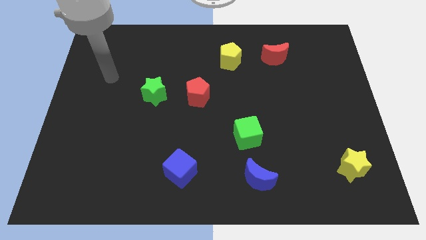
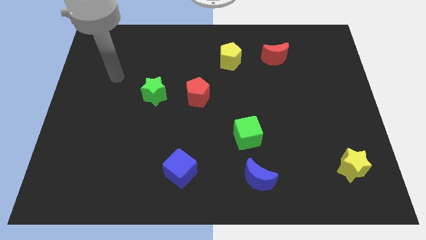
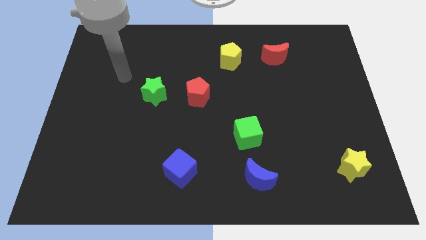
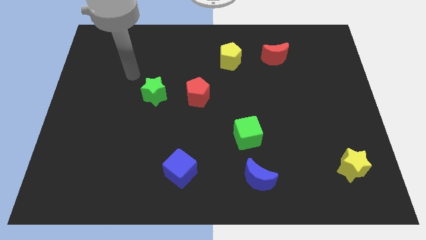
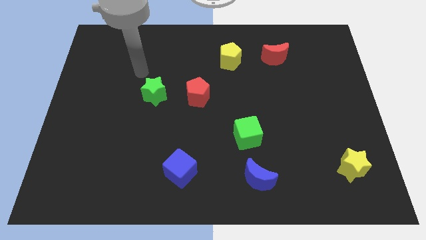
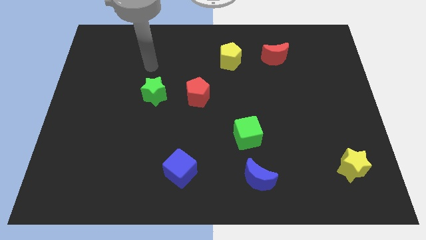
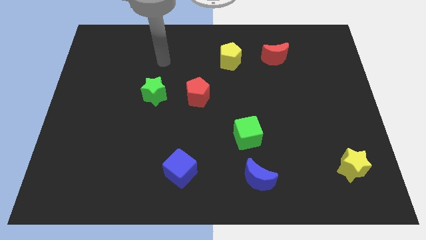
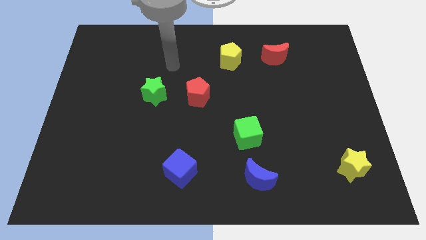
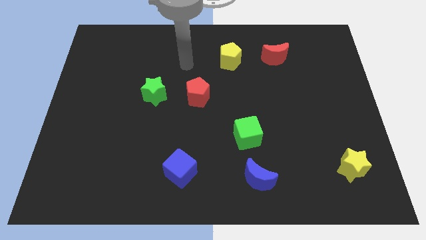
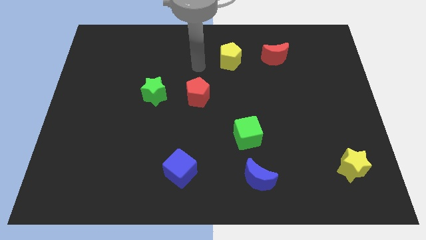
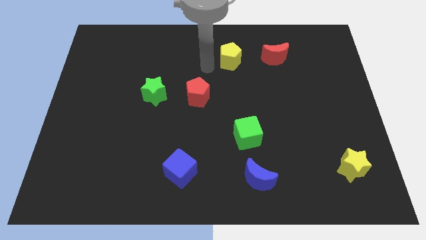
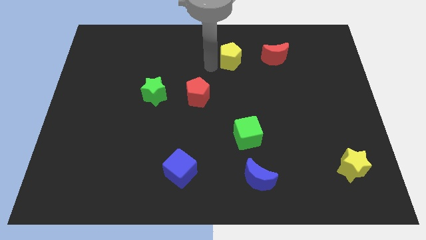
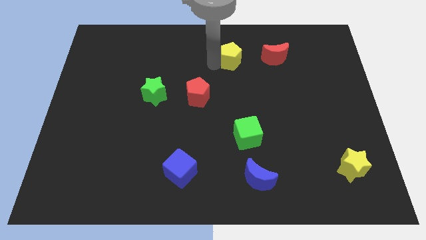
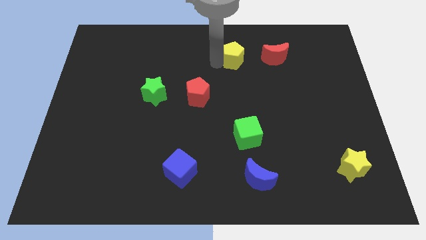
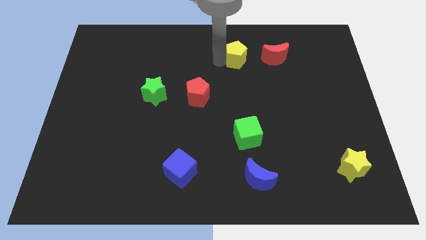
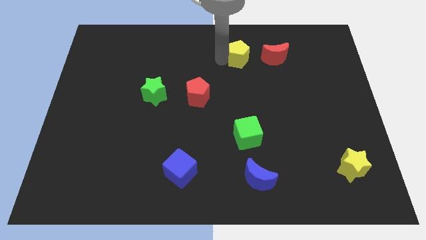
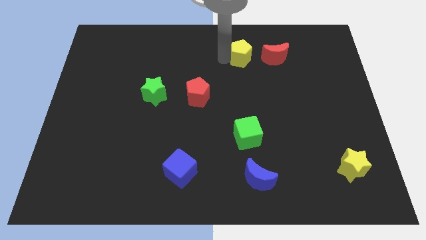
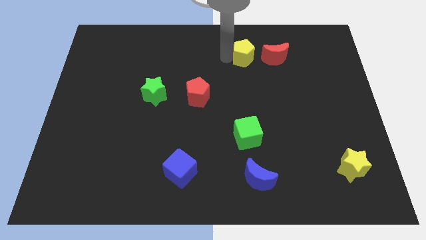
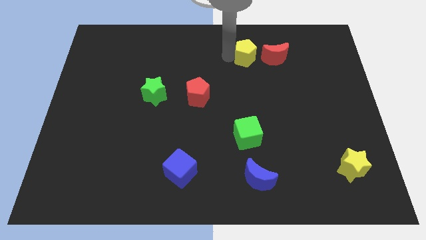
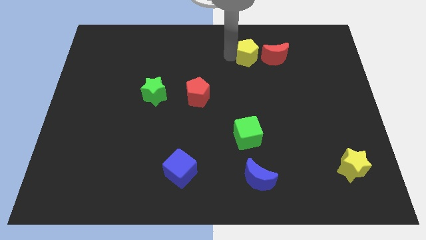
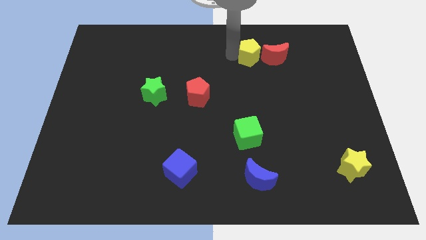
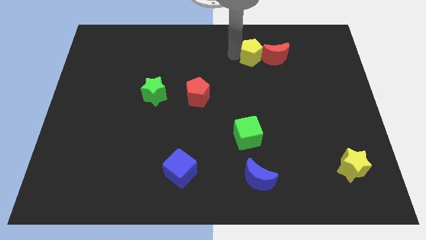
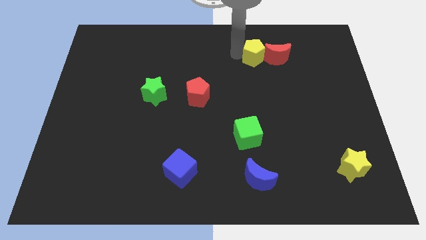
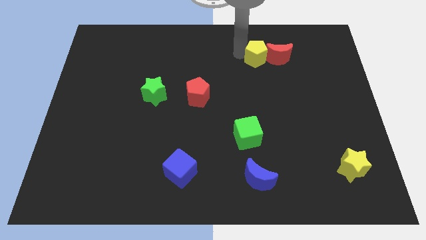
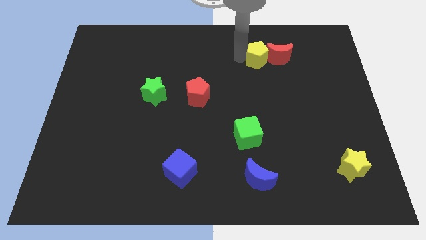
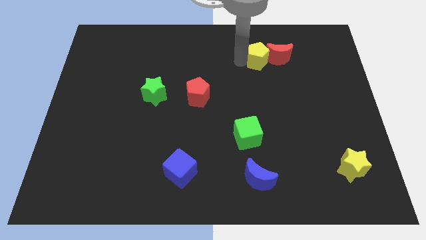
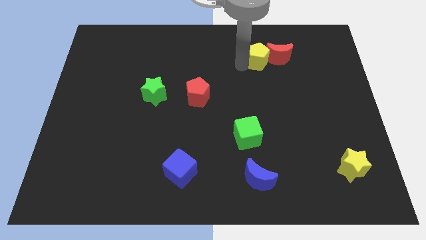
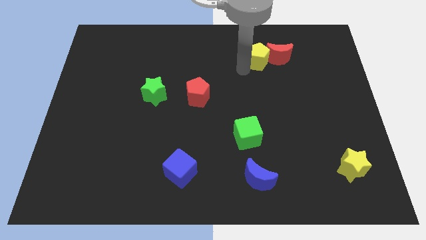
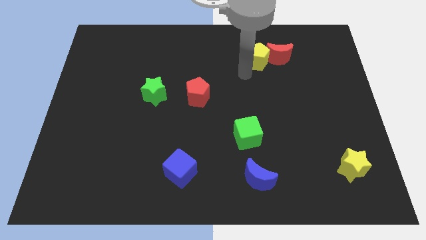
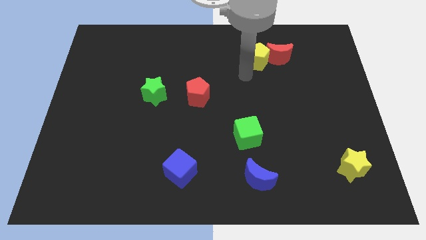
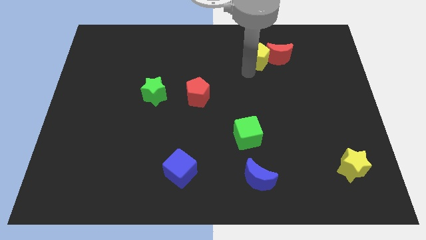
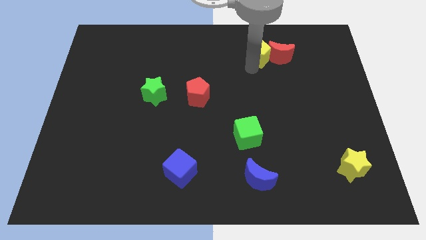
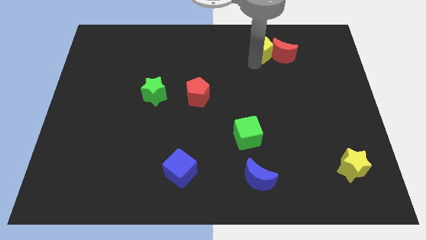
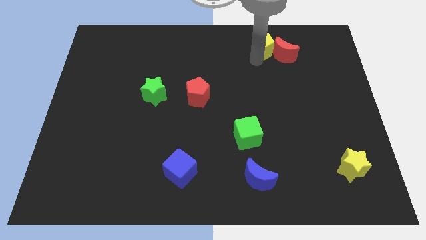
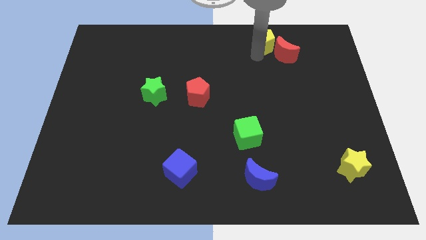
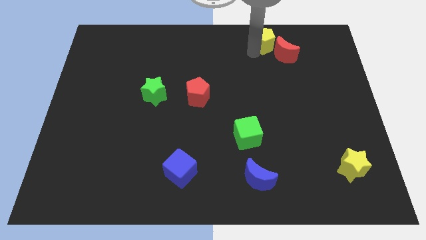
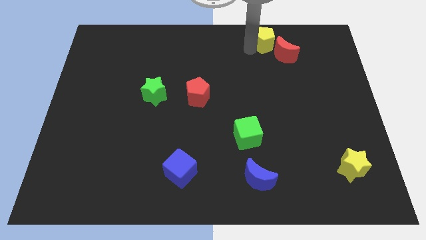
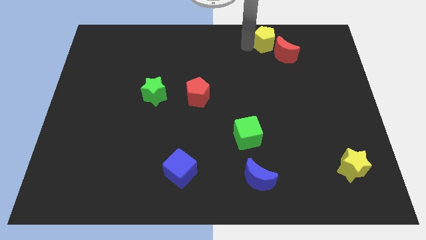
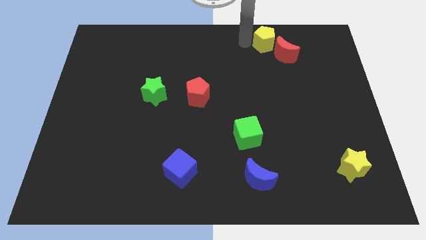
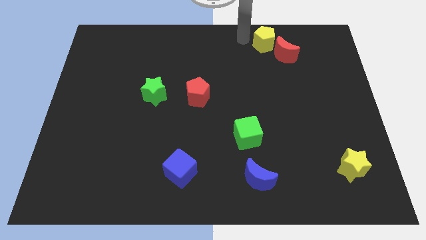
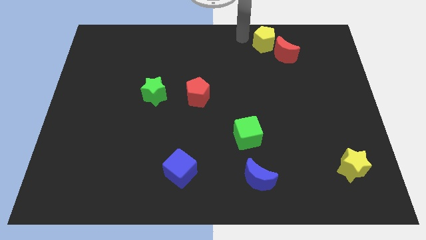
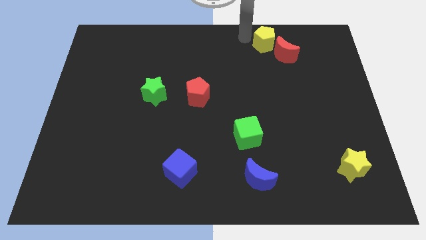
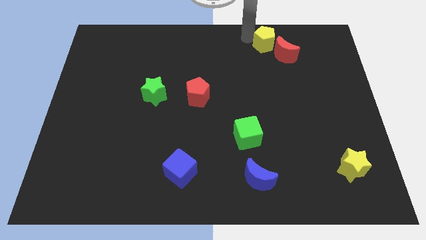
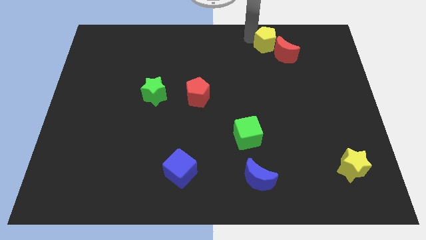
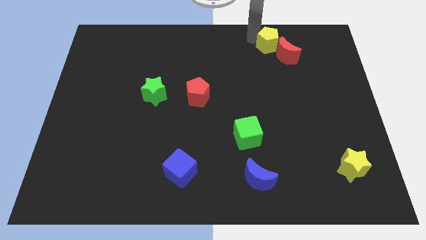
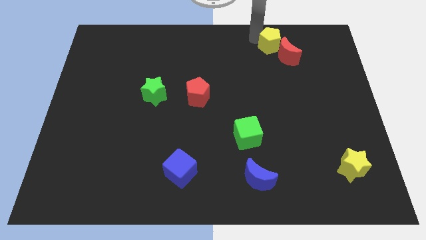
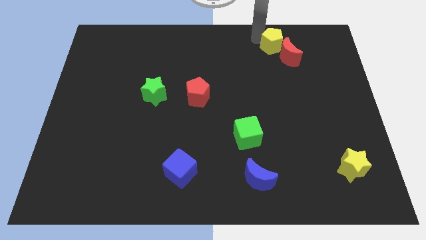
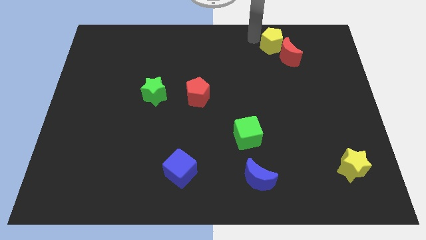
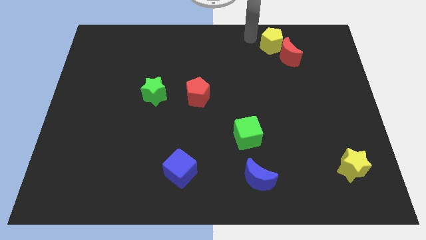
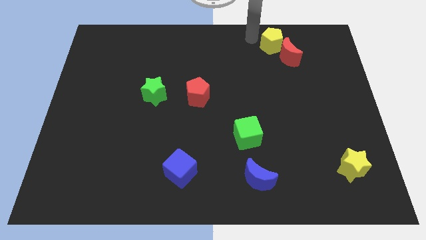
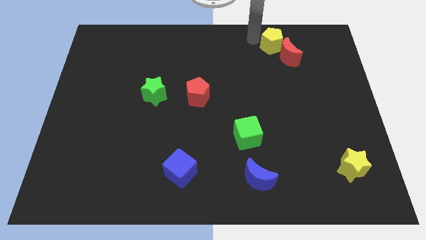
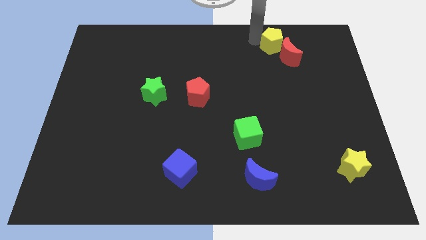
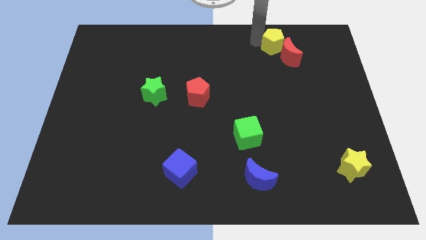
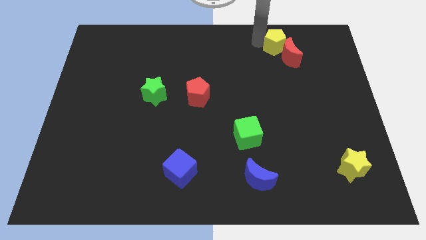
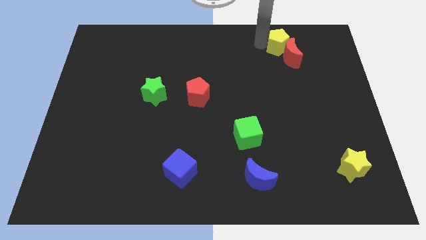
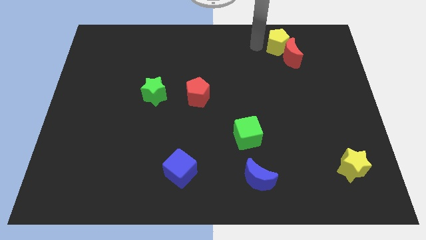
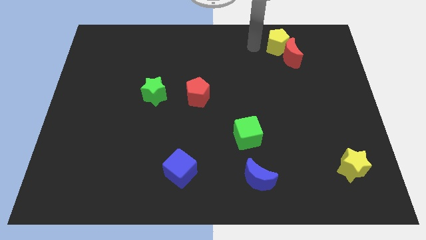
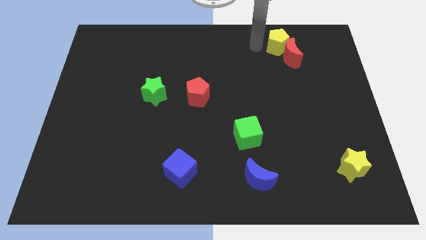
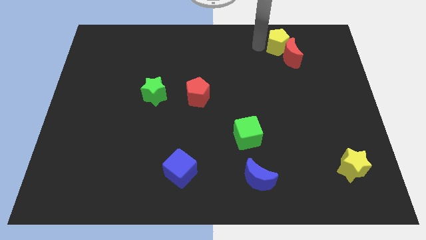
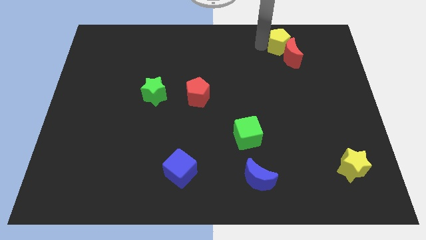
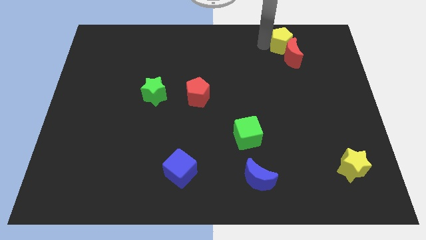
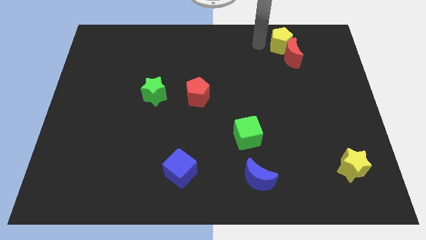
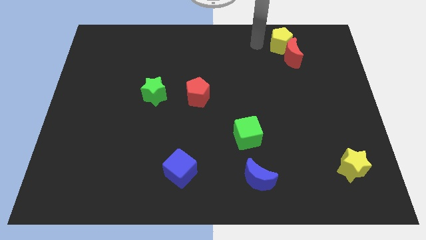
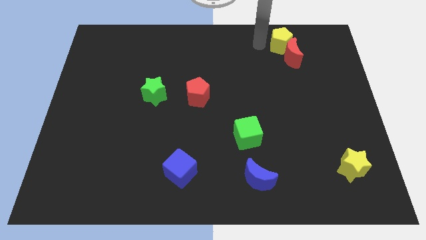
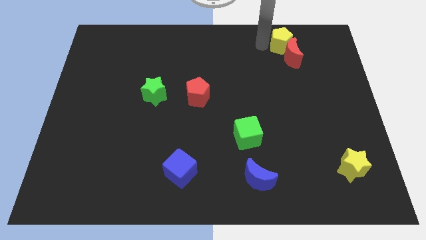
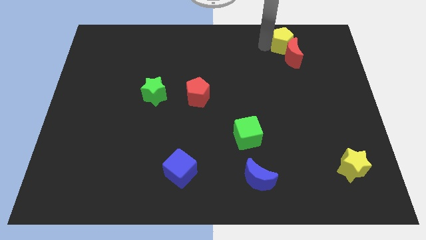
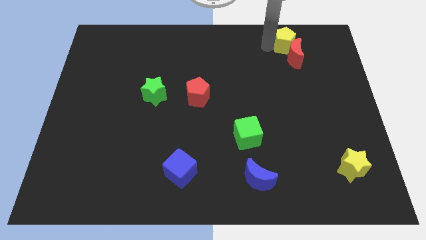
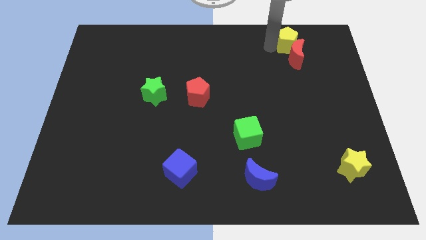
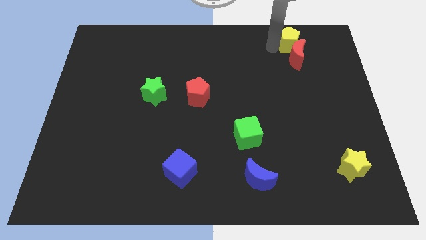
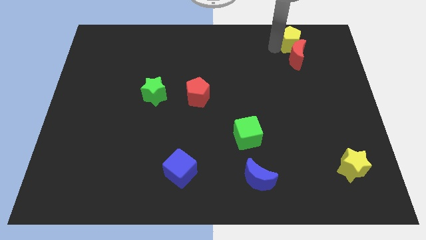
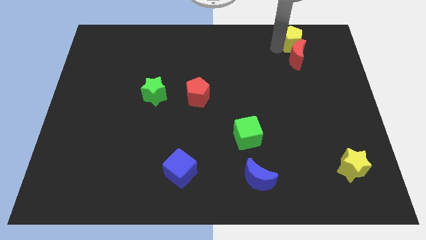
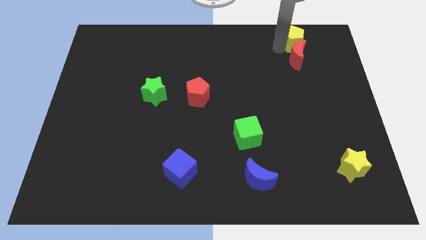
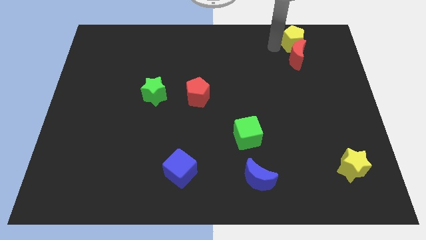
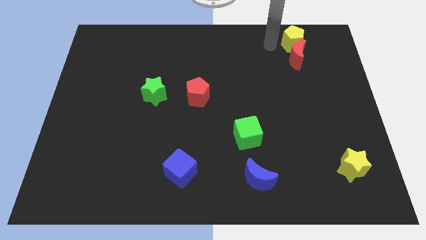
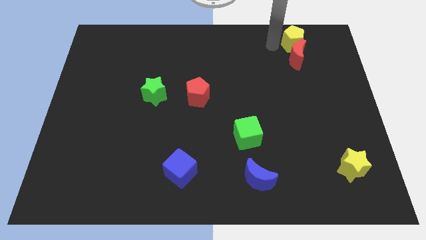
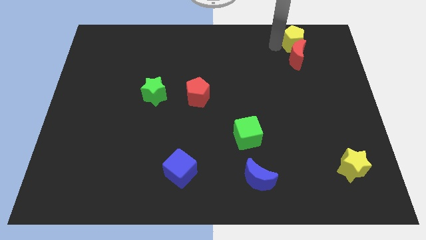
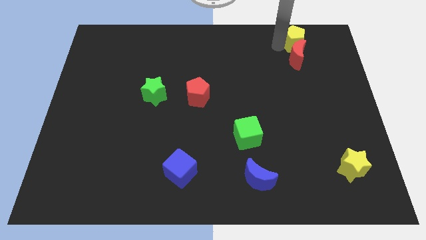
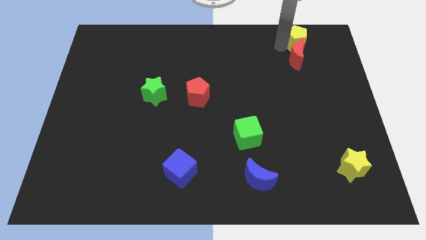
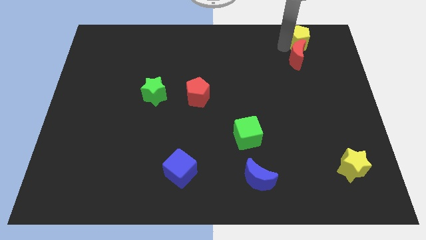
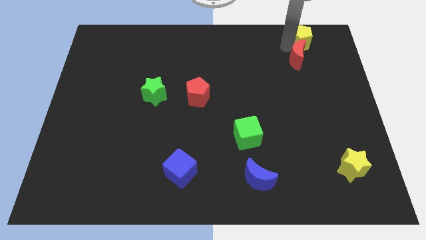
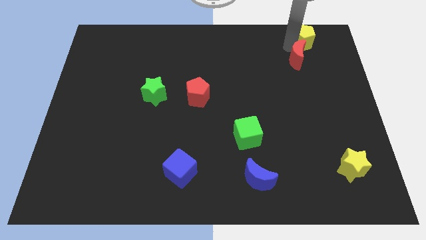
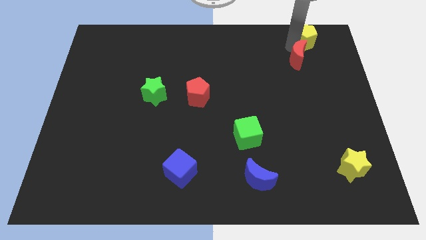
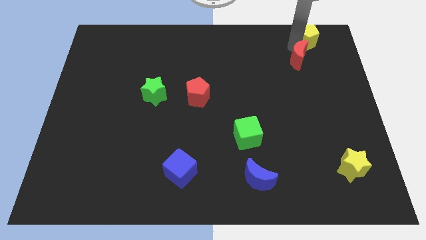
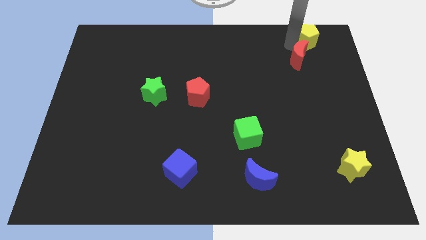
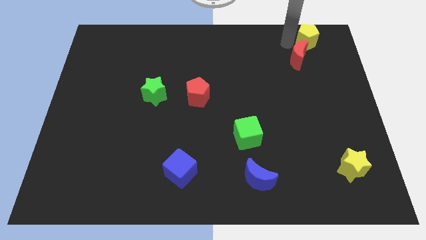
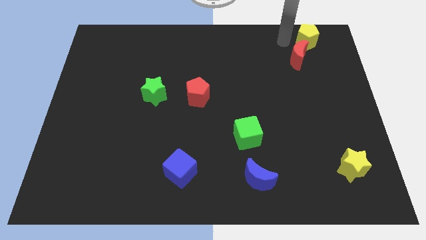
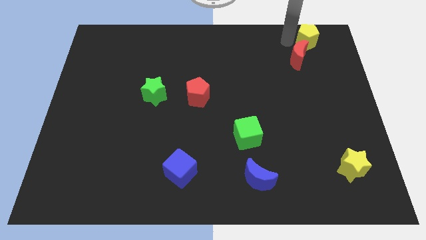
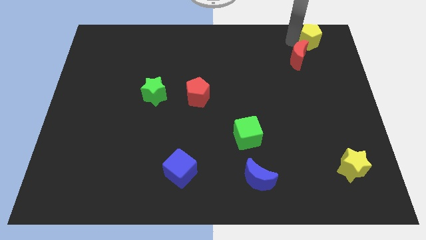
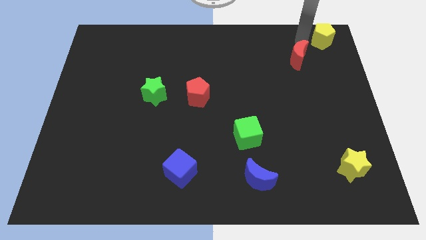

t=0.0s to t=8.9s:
move the yellow pentagon to the top right of the board
